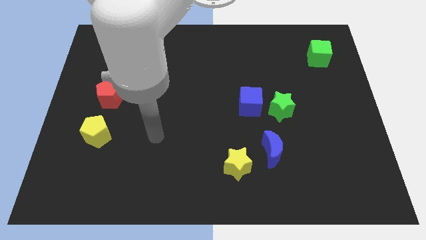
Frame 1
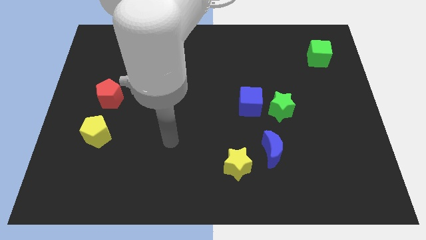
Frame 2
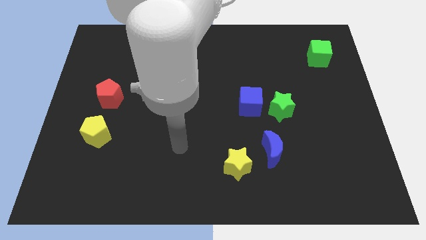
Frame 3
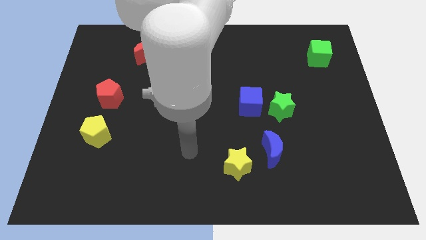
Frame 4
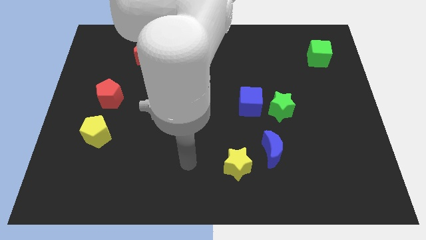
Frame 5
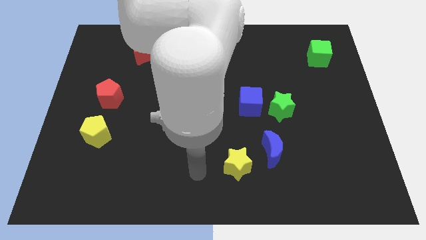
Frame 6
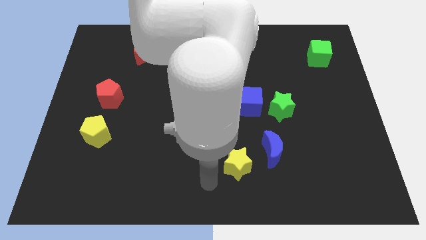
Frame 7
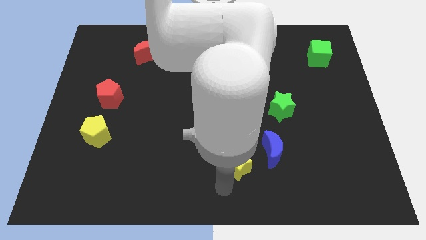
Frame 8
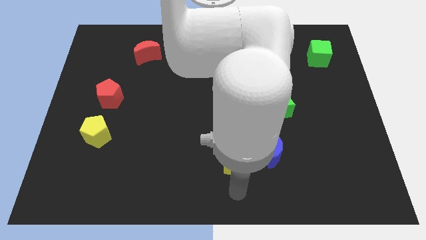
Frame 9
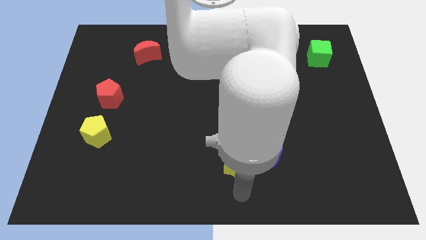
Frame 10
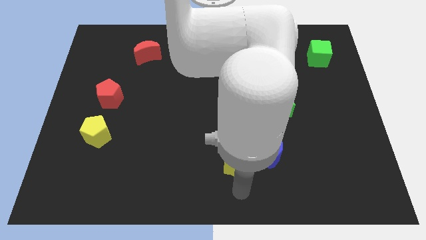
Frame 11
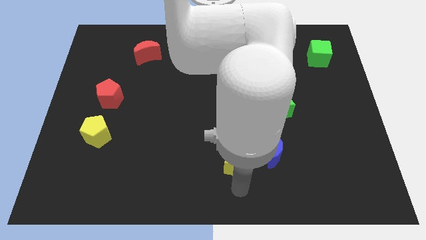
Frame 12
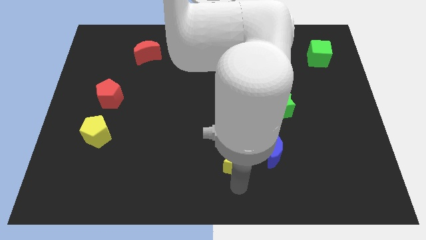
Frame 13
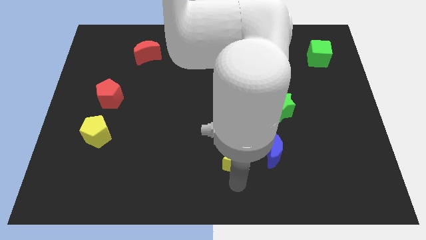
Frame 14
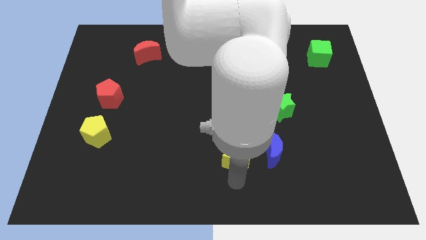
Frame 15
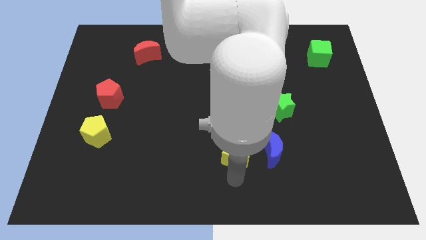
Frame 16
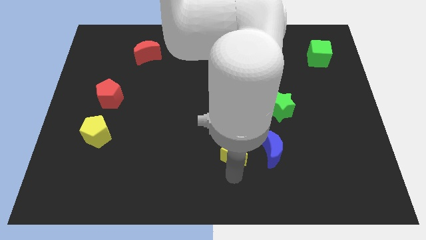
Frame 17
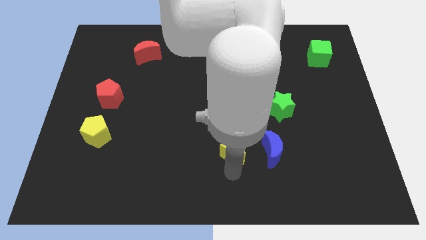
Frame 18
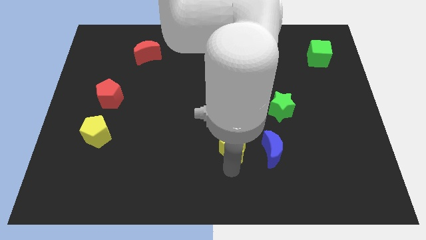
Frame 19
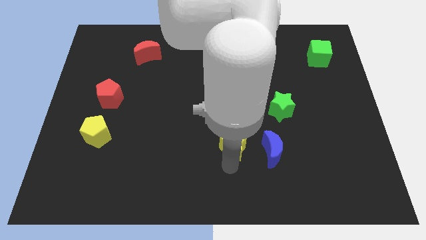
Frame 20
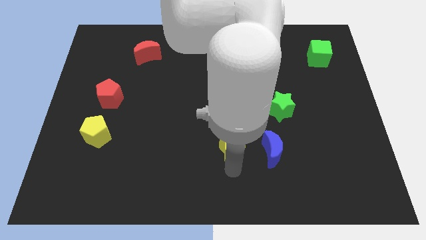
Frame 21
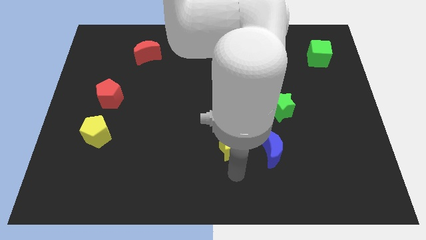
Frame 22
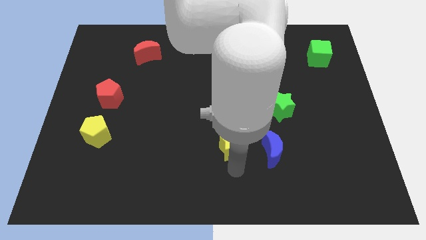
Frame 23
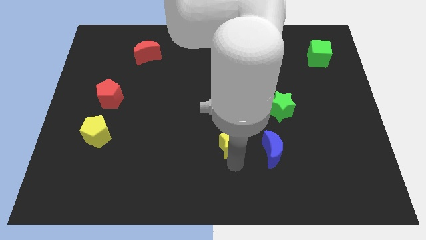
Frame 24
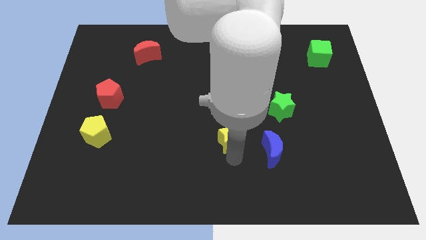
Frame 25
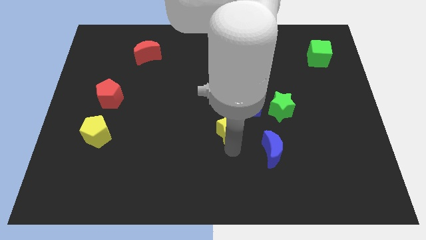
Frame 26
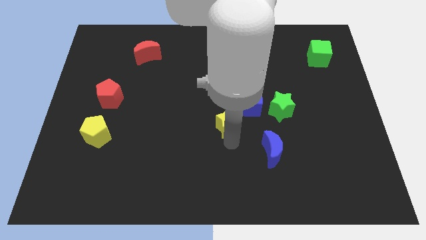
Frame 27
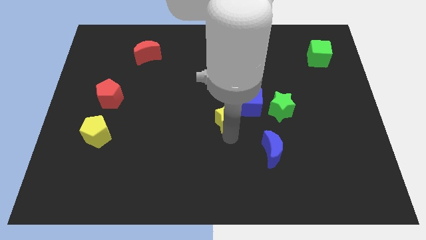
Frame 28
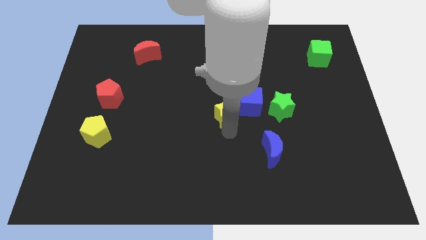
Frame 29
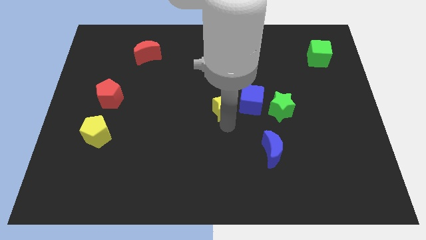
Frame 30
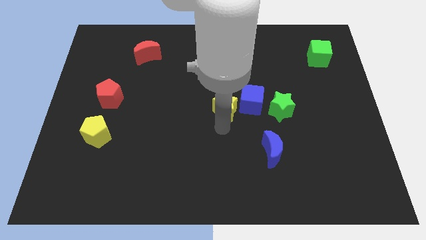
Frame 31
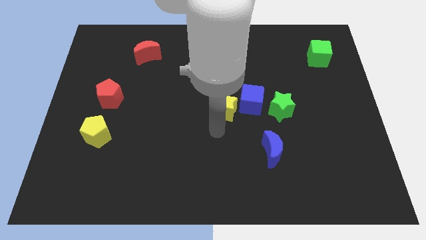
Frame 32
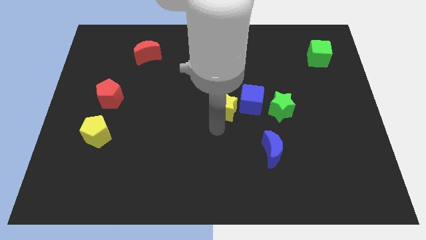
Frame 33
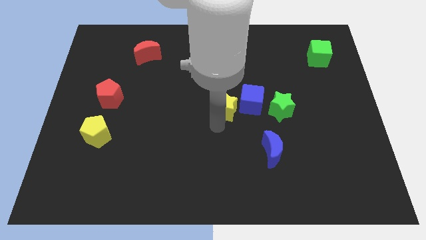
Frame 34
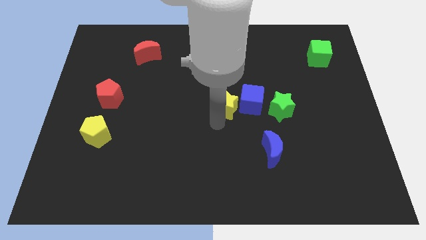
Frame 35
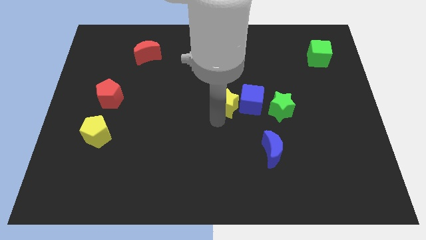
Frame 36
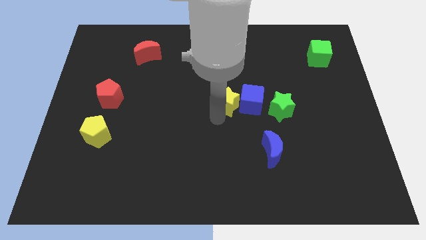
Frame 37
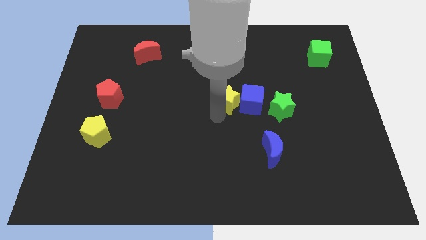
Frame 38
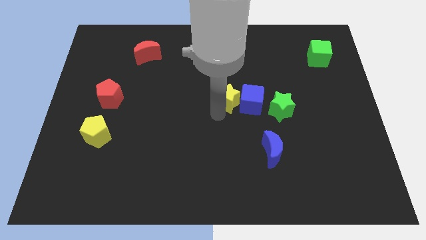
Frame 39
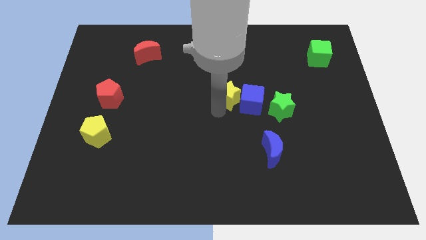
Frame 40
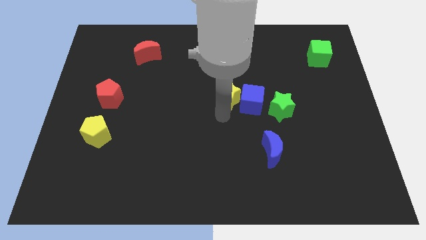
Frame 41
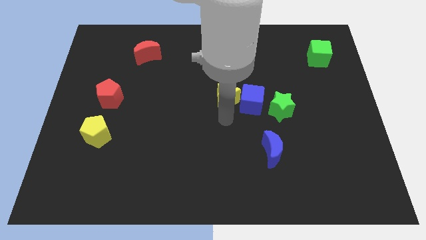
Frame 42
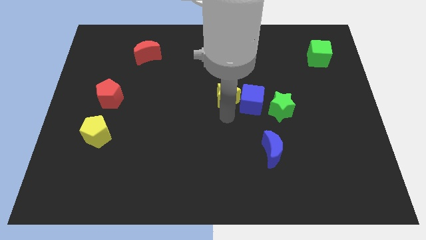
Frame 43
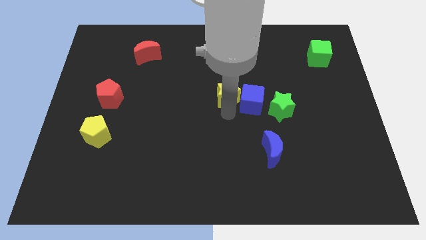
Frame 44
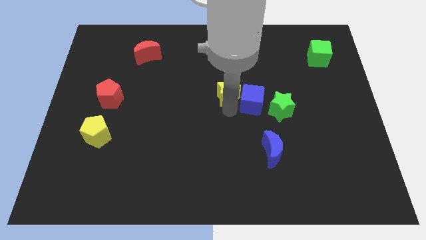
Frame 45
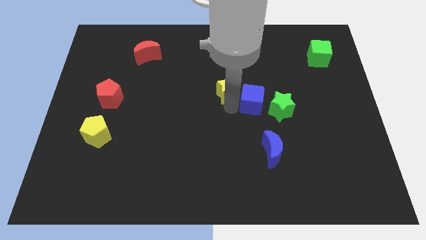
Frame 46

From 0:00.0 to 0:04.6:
move the yellow star upwards

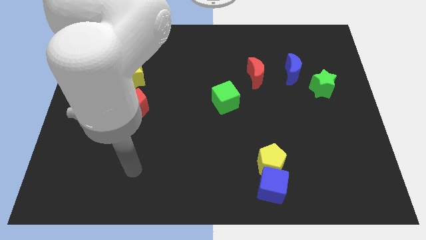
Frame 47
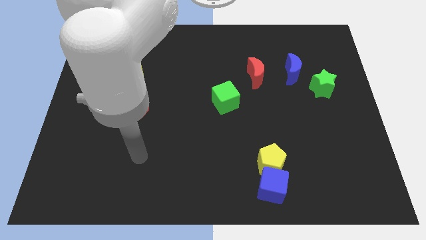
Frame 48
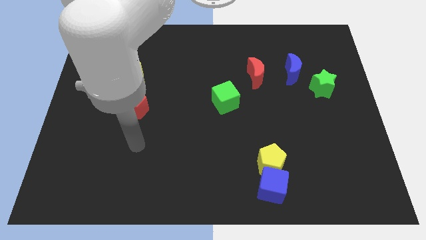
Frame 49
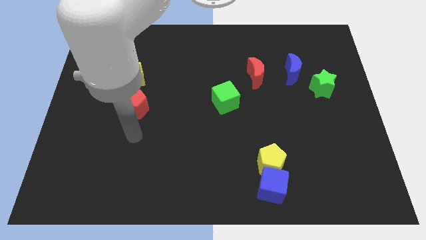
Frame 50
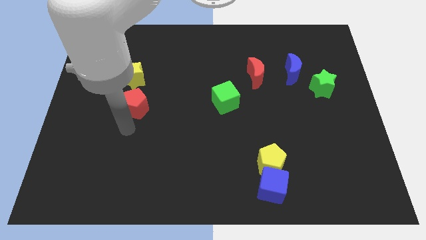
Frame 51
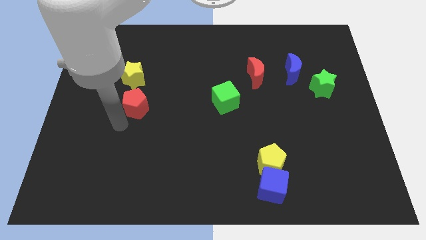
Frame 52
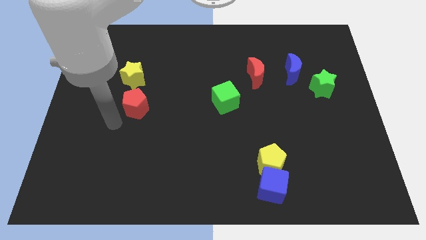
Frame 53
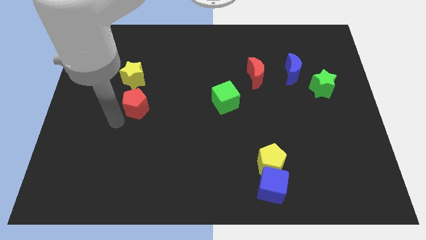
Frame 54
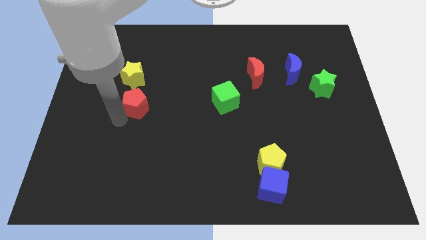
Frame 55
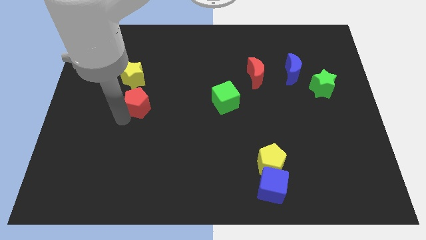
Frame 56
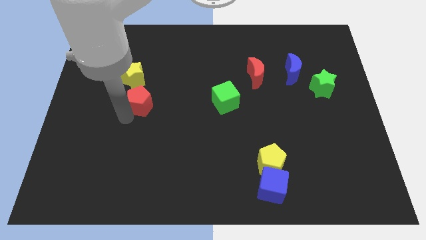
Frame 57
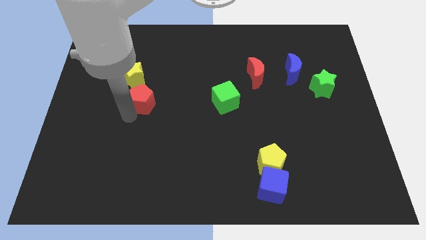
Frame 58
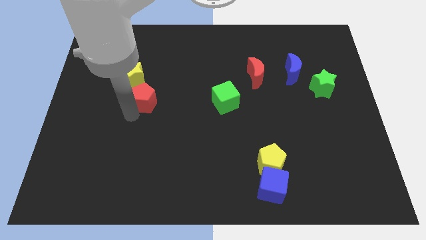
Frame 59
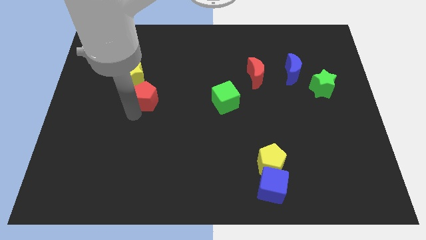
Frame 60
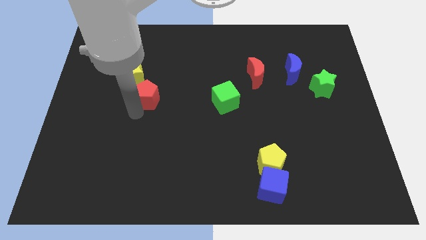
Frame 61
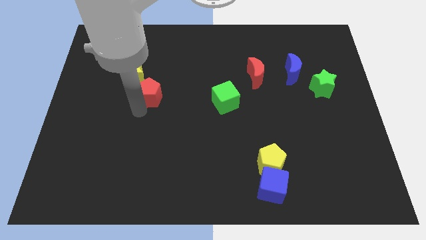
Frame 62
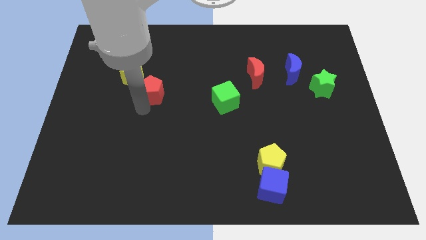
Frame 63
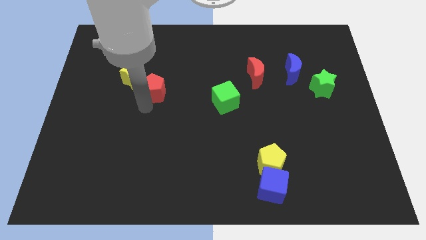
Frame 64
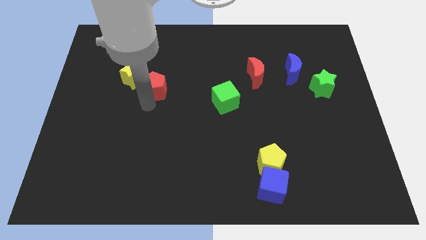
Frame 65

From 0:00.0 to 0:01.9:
push the red pentagon somewhat up and to the right

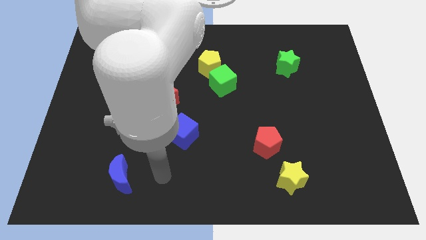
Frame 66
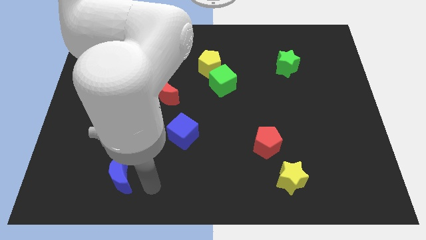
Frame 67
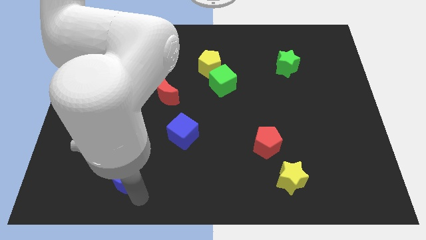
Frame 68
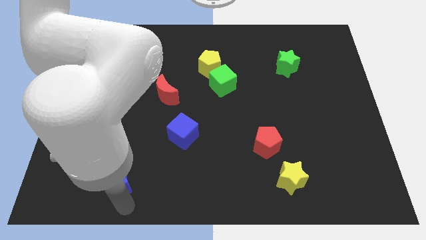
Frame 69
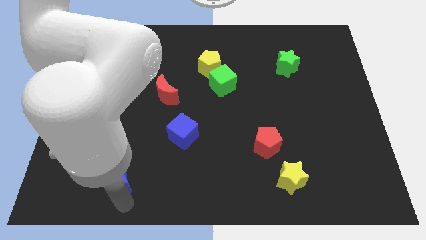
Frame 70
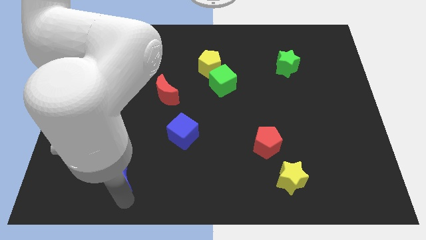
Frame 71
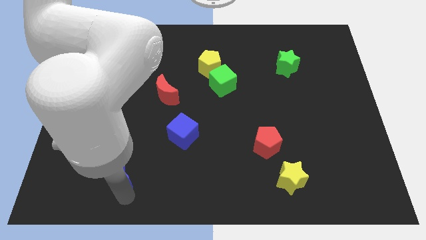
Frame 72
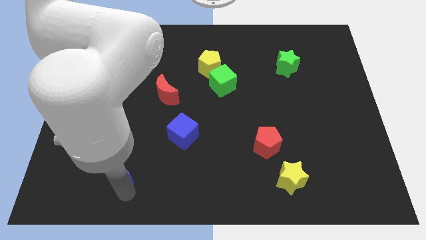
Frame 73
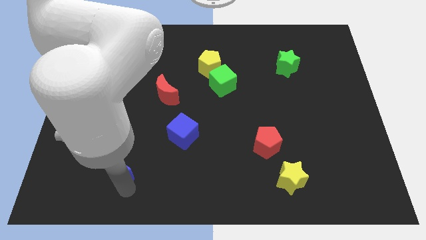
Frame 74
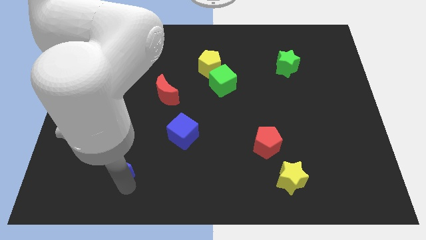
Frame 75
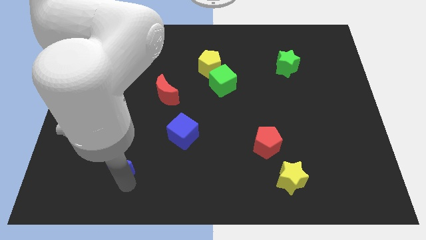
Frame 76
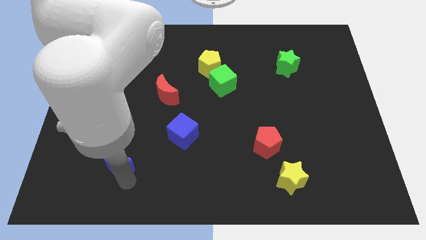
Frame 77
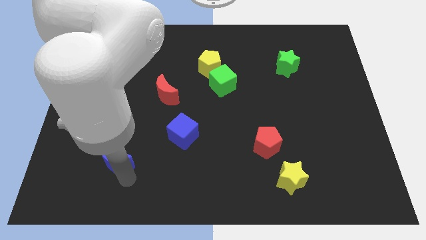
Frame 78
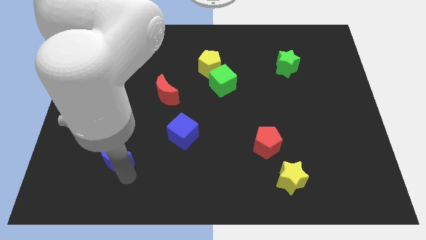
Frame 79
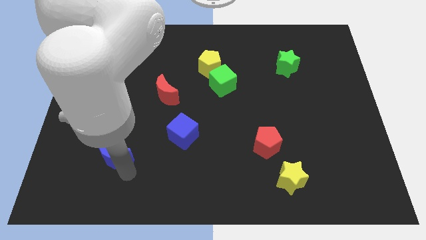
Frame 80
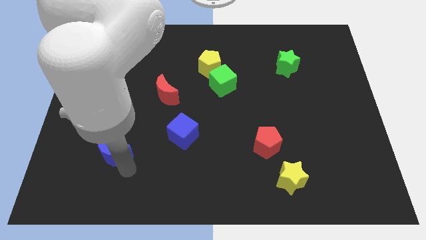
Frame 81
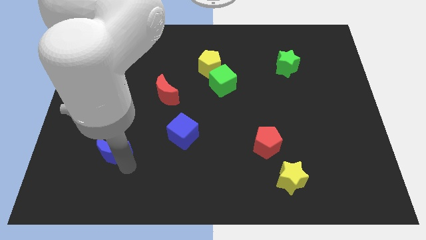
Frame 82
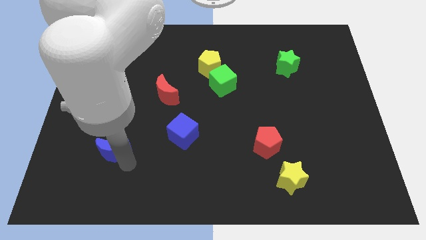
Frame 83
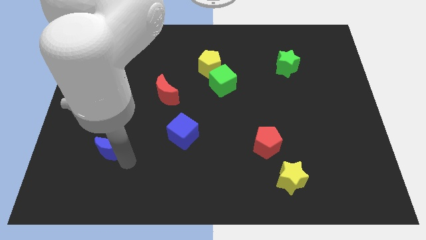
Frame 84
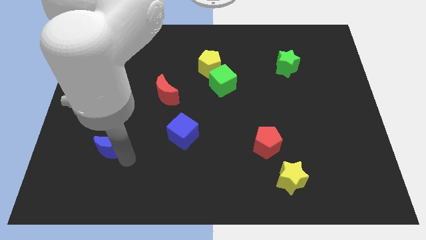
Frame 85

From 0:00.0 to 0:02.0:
move the blue moon upwards a little bit
